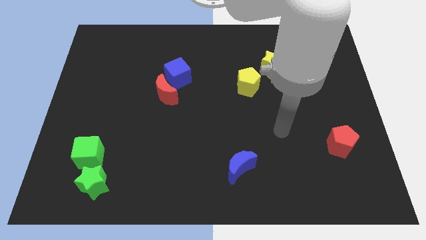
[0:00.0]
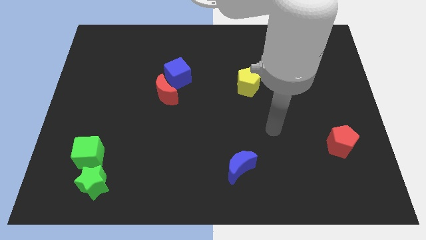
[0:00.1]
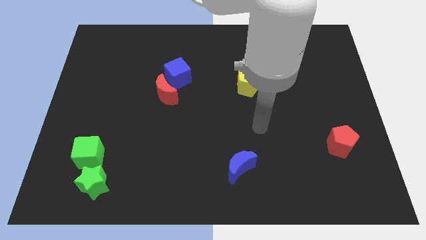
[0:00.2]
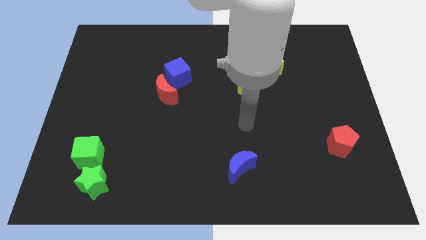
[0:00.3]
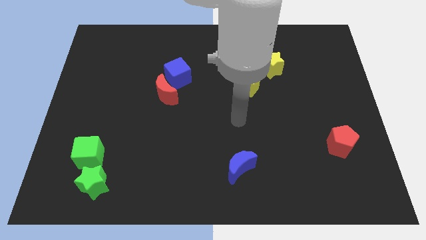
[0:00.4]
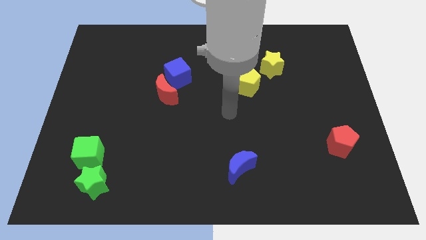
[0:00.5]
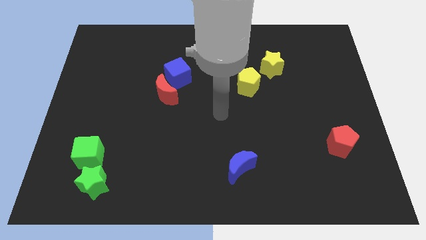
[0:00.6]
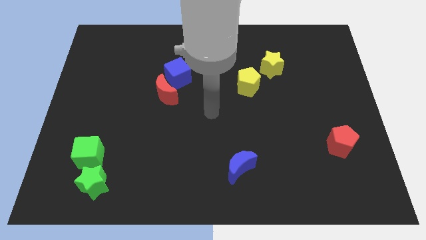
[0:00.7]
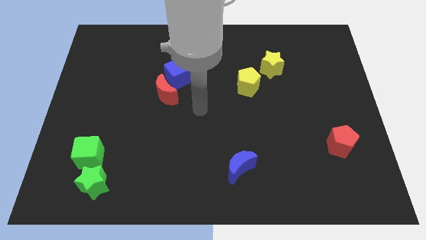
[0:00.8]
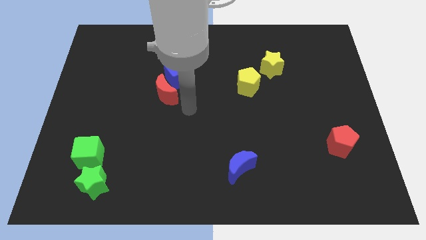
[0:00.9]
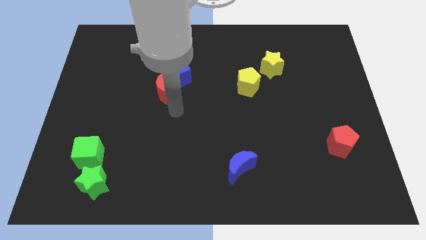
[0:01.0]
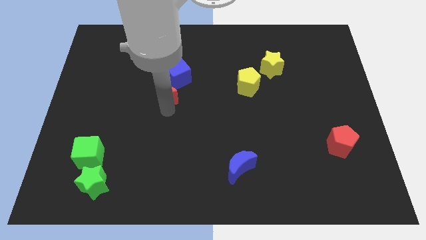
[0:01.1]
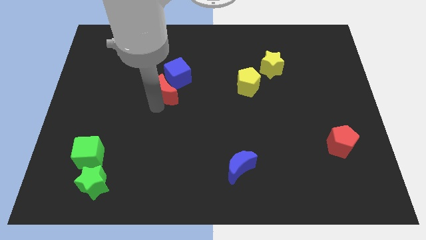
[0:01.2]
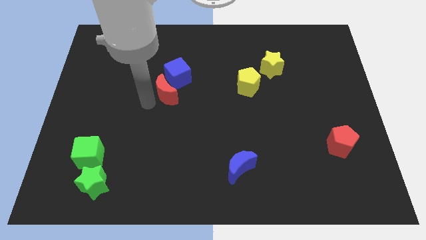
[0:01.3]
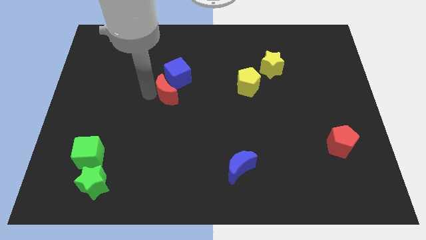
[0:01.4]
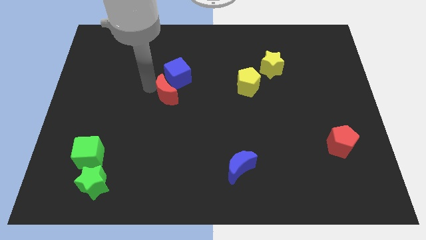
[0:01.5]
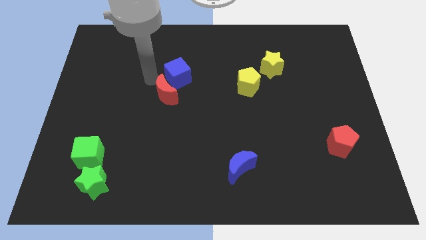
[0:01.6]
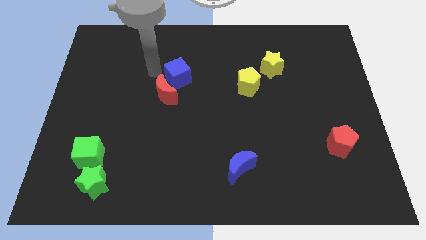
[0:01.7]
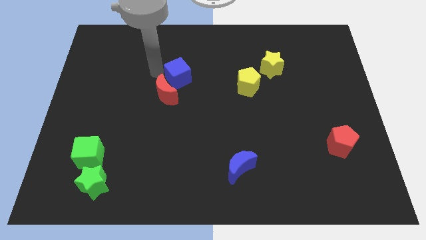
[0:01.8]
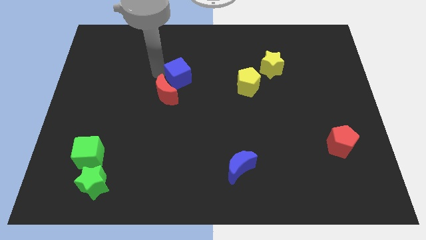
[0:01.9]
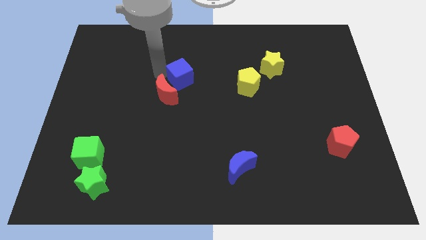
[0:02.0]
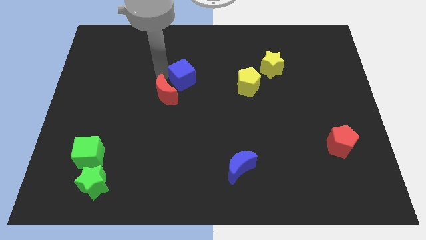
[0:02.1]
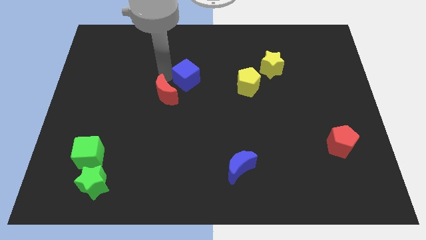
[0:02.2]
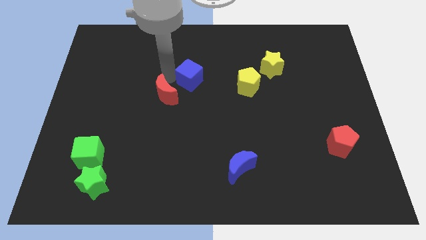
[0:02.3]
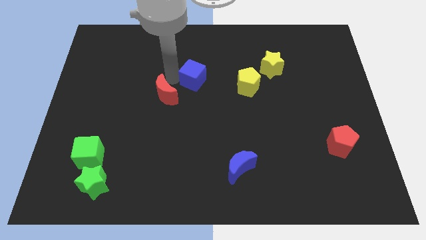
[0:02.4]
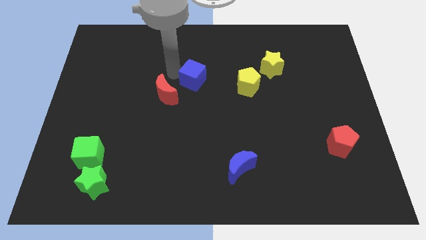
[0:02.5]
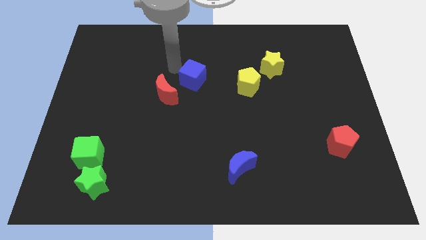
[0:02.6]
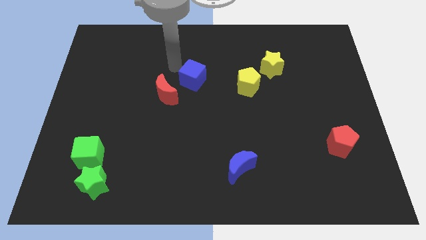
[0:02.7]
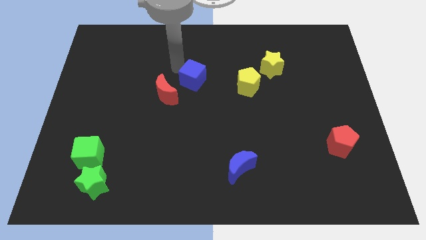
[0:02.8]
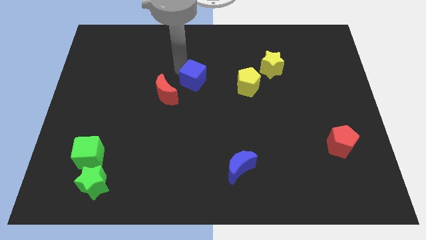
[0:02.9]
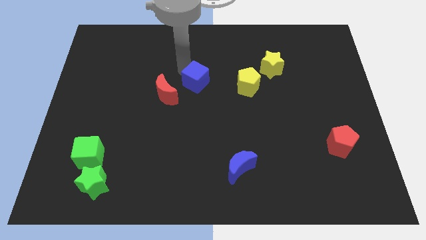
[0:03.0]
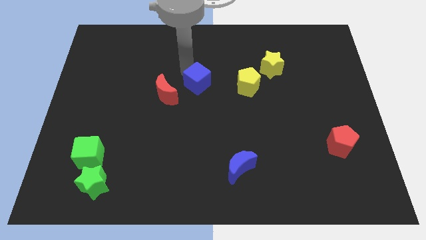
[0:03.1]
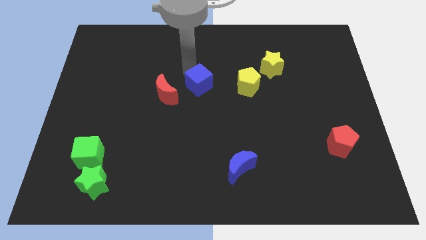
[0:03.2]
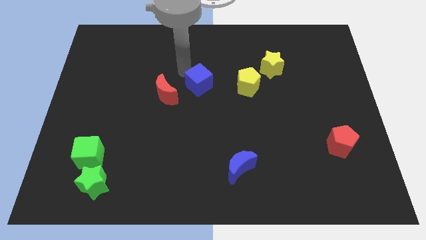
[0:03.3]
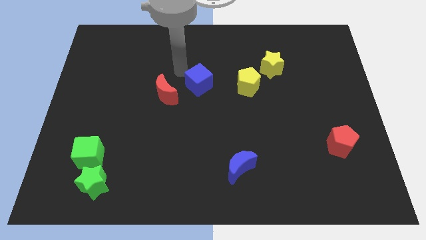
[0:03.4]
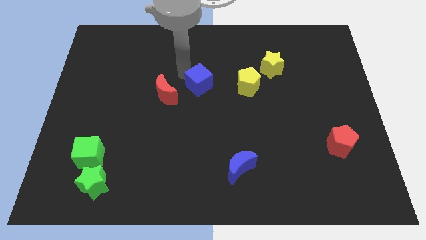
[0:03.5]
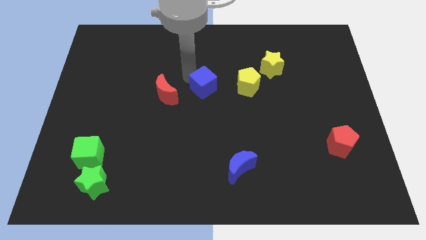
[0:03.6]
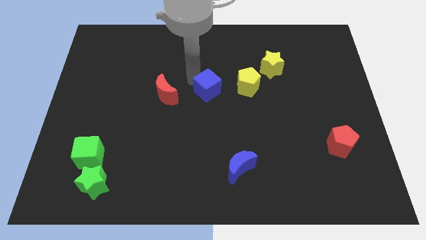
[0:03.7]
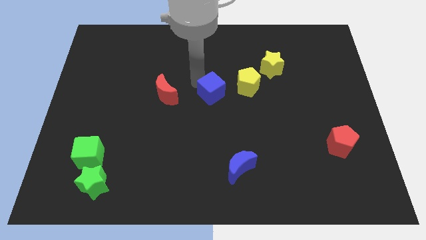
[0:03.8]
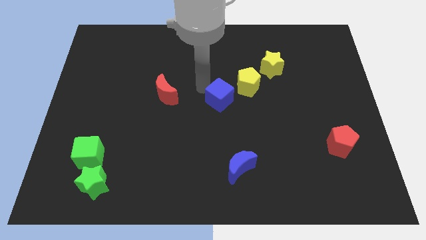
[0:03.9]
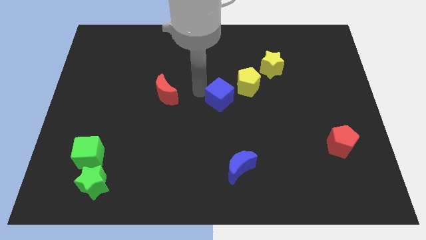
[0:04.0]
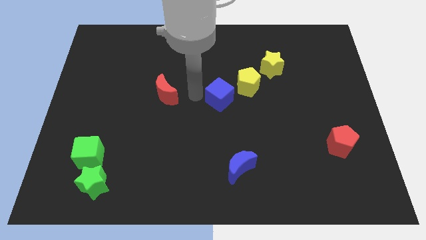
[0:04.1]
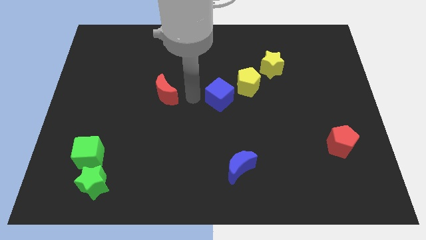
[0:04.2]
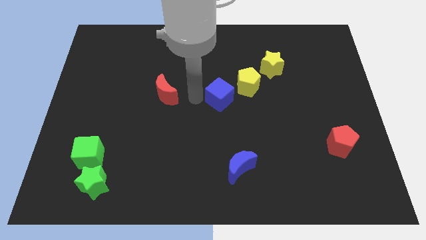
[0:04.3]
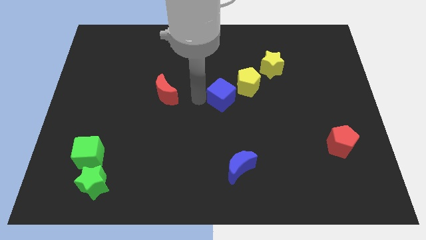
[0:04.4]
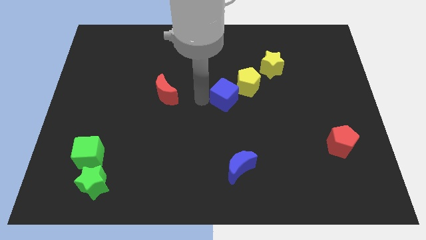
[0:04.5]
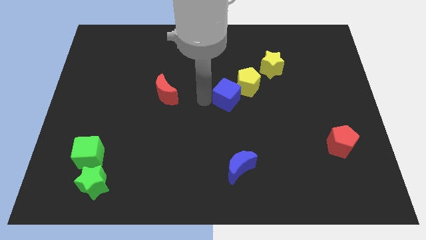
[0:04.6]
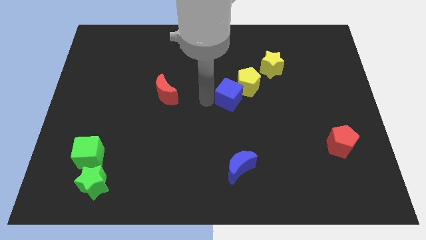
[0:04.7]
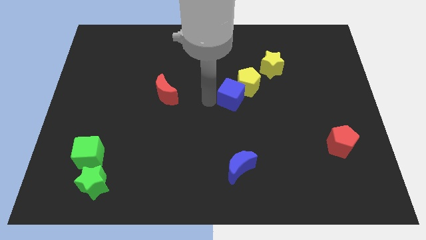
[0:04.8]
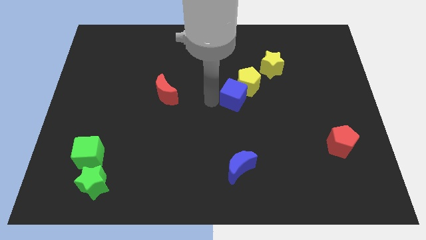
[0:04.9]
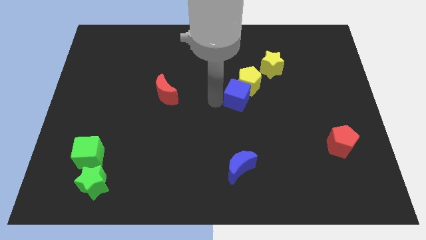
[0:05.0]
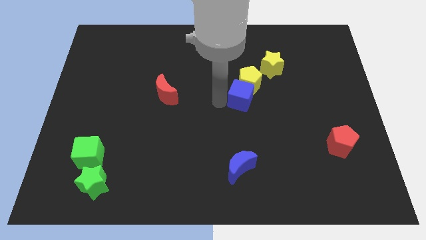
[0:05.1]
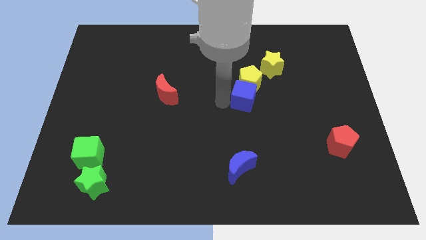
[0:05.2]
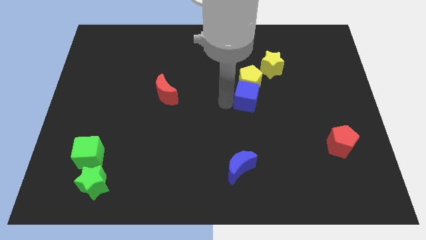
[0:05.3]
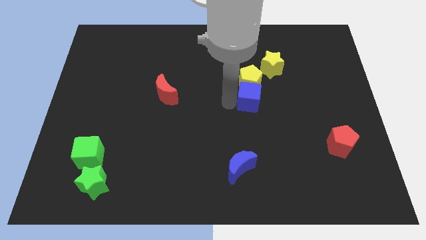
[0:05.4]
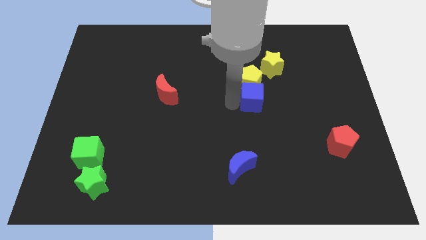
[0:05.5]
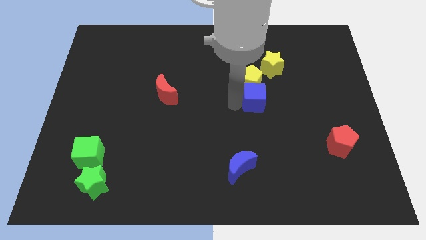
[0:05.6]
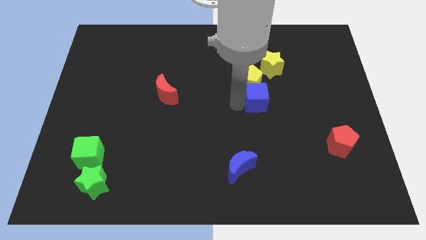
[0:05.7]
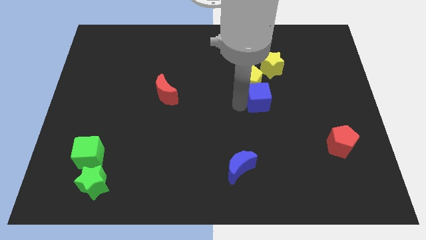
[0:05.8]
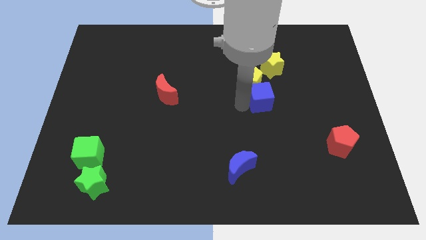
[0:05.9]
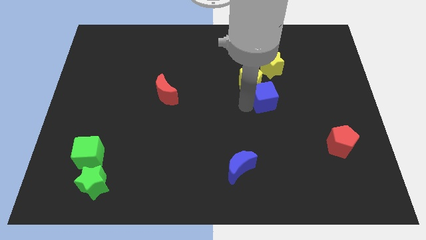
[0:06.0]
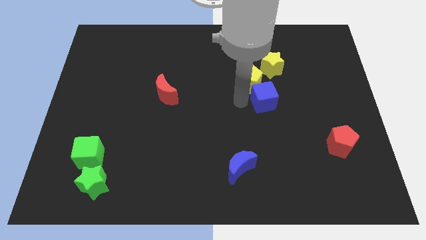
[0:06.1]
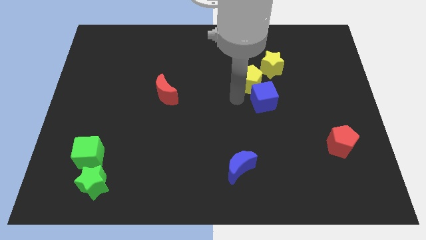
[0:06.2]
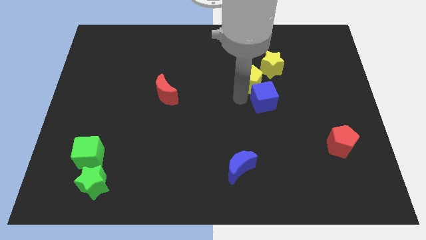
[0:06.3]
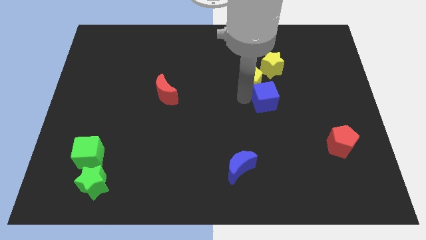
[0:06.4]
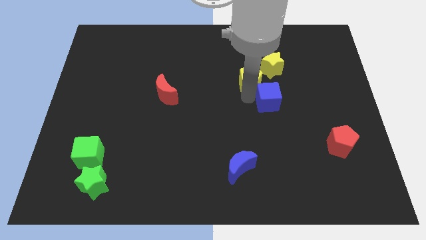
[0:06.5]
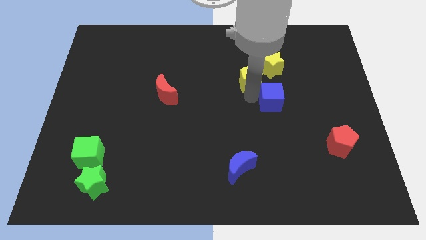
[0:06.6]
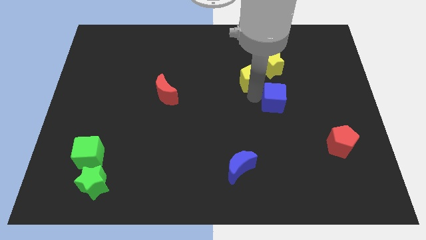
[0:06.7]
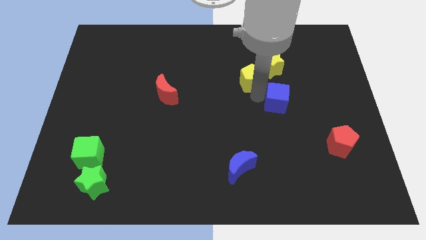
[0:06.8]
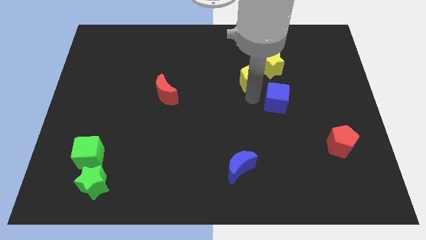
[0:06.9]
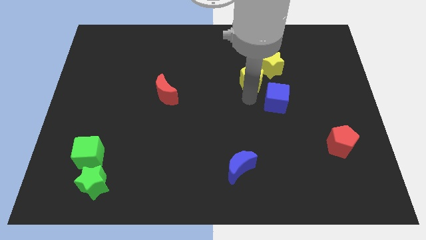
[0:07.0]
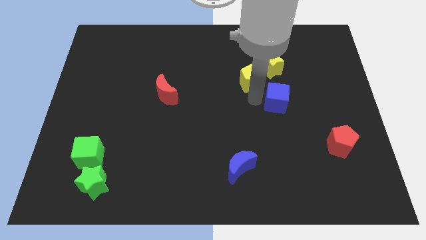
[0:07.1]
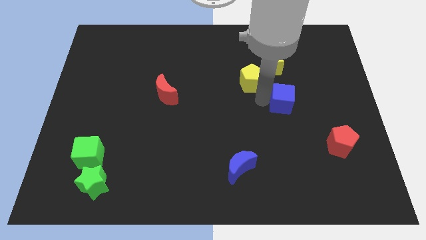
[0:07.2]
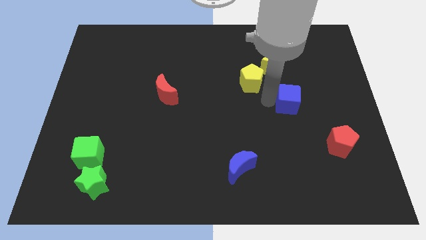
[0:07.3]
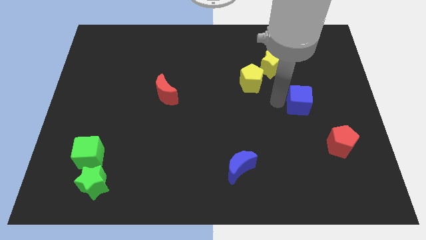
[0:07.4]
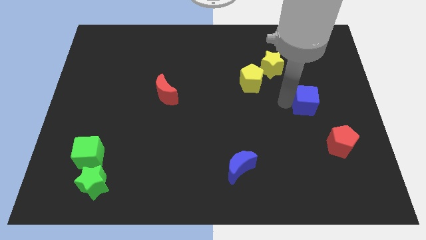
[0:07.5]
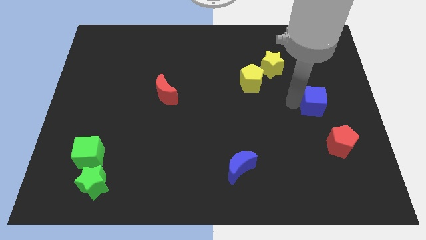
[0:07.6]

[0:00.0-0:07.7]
push the blue cube to the top side of the red pentagon
